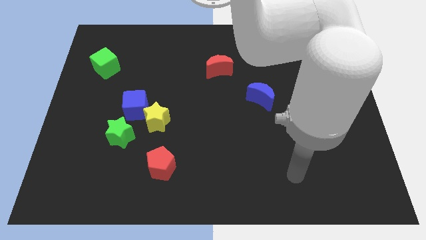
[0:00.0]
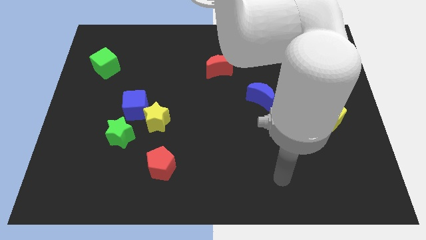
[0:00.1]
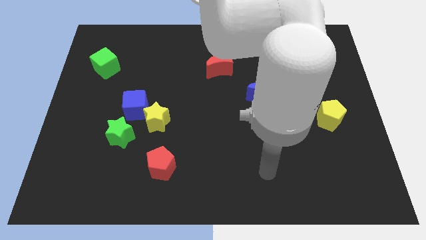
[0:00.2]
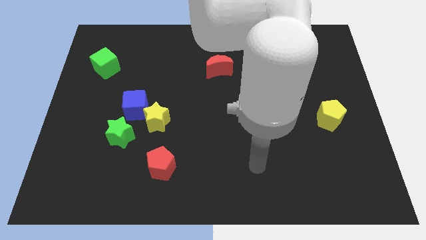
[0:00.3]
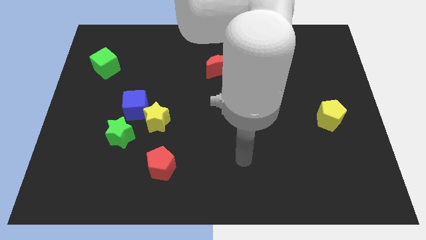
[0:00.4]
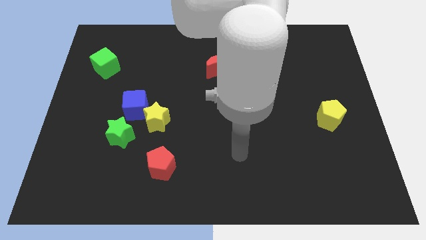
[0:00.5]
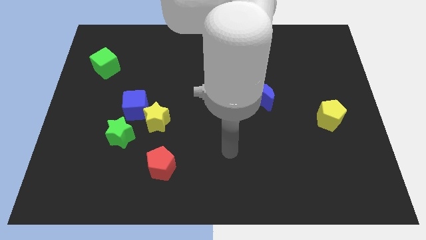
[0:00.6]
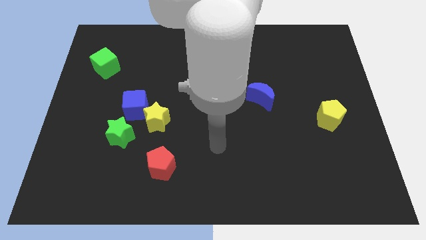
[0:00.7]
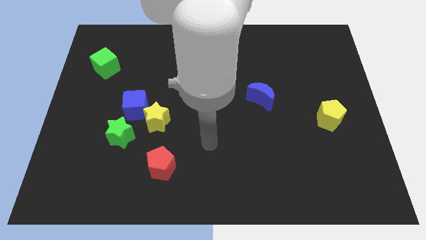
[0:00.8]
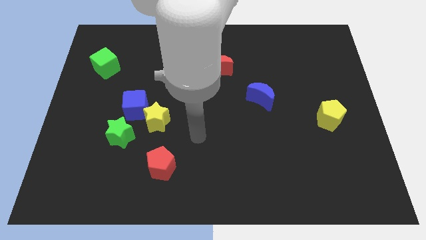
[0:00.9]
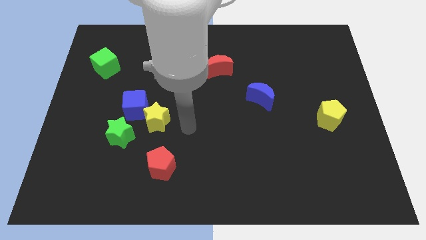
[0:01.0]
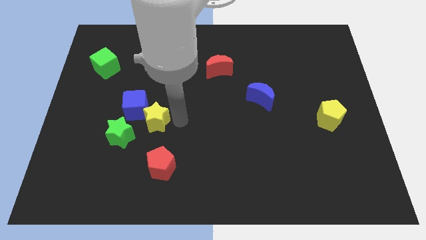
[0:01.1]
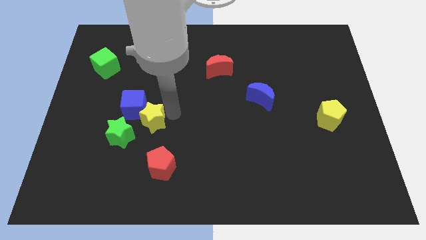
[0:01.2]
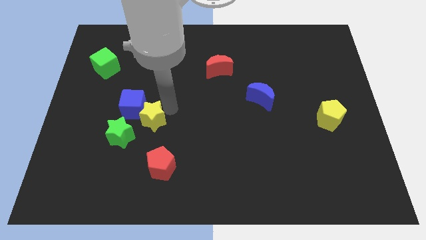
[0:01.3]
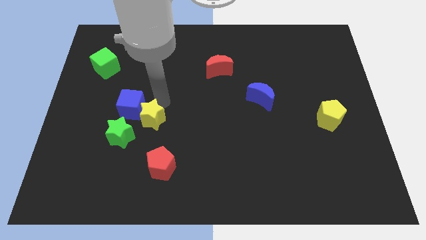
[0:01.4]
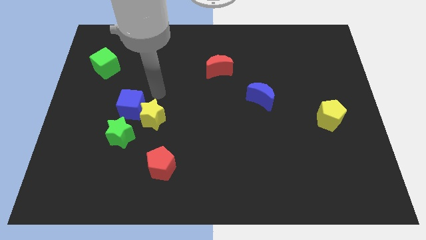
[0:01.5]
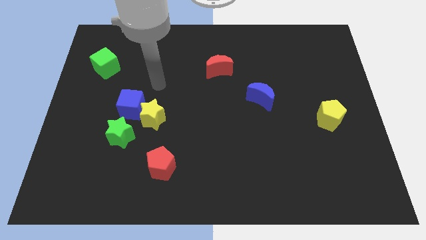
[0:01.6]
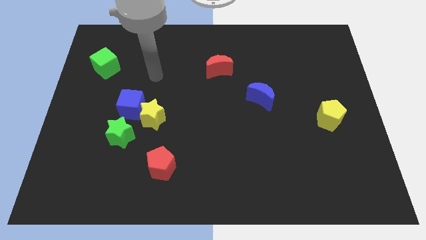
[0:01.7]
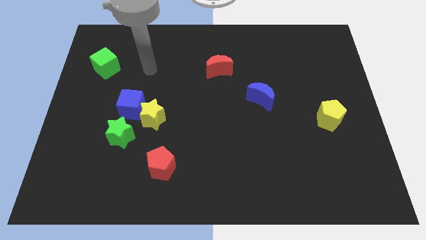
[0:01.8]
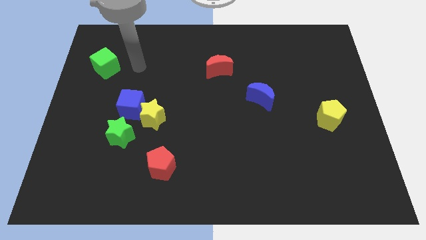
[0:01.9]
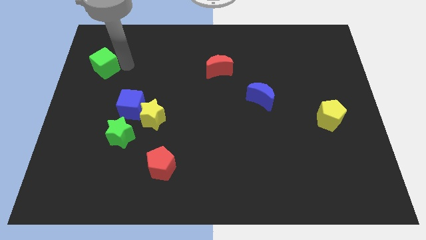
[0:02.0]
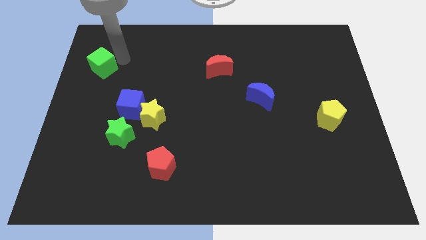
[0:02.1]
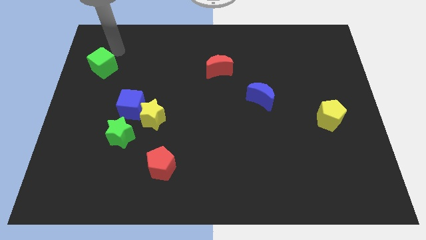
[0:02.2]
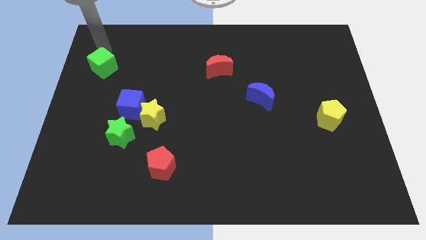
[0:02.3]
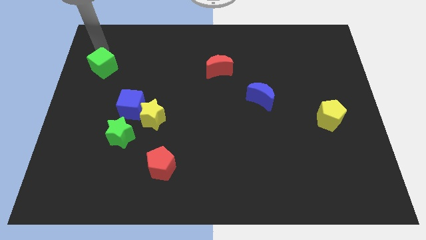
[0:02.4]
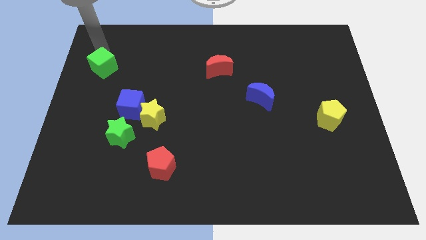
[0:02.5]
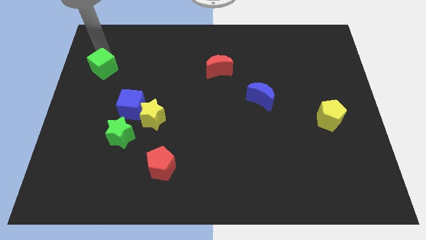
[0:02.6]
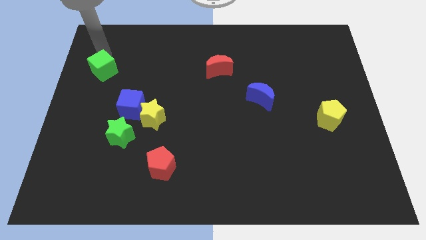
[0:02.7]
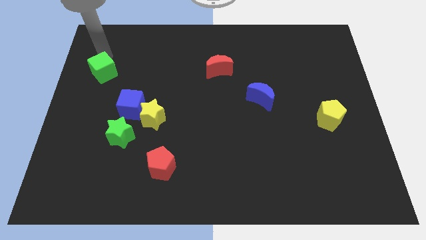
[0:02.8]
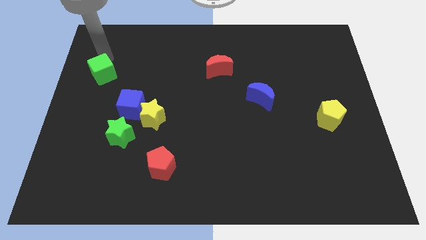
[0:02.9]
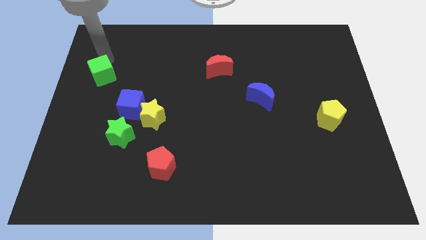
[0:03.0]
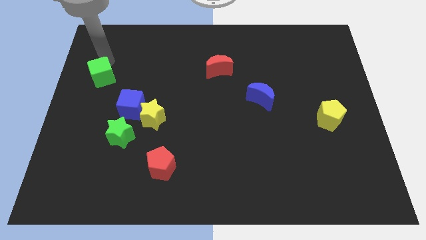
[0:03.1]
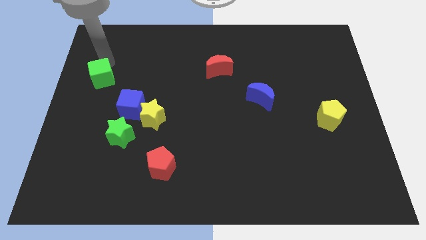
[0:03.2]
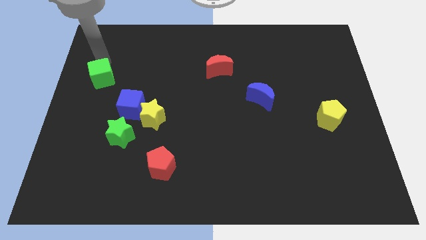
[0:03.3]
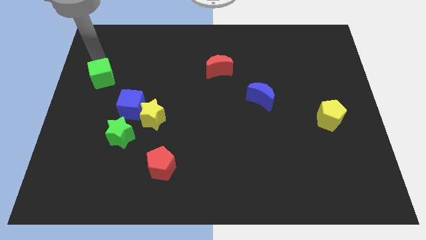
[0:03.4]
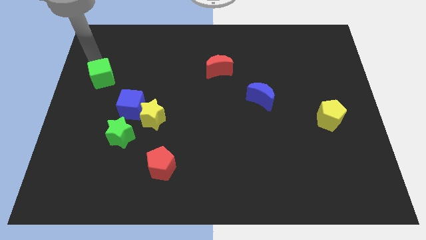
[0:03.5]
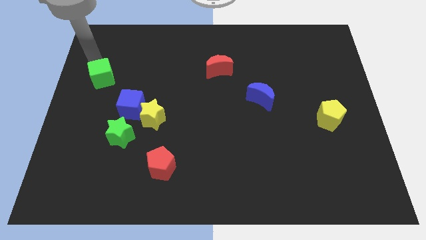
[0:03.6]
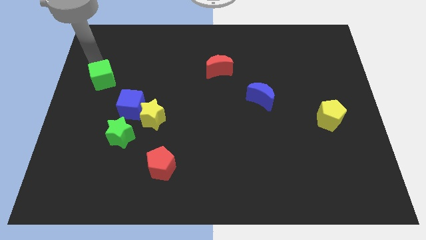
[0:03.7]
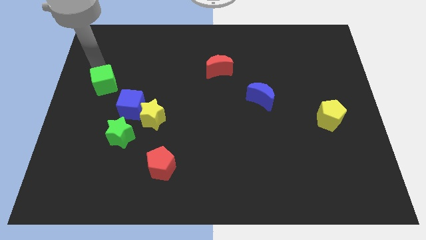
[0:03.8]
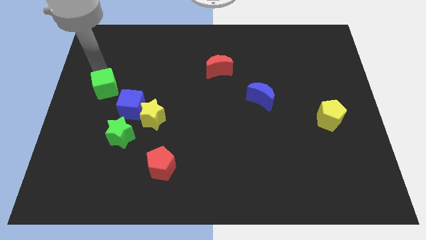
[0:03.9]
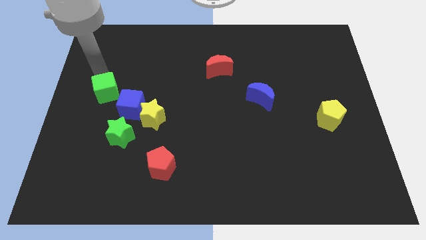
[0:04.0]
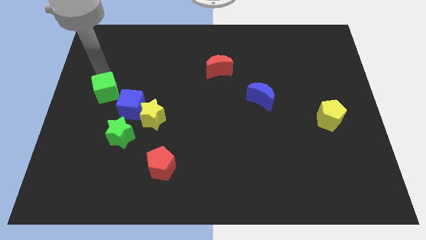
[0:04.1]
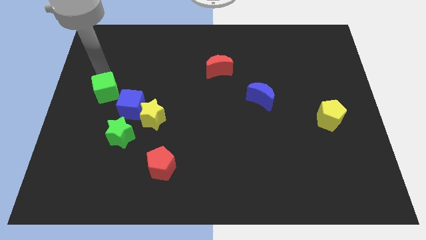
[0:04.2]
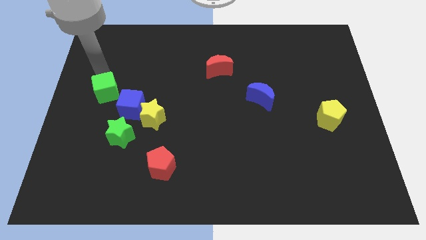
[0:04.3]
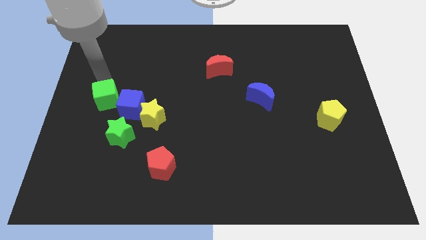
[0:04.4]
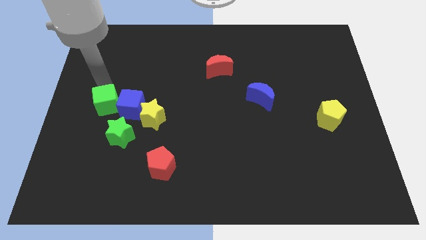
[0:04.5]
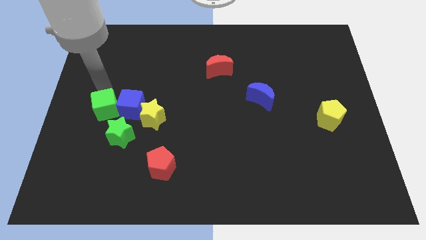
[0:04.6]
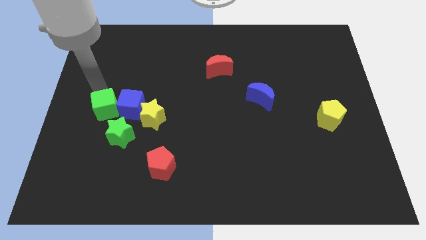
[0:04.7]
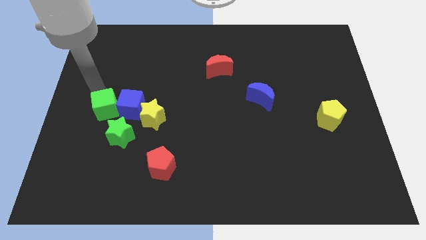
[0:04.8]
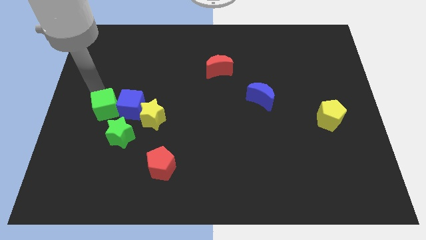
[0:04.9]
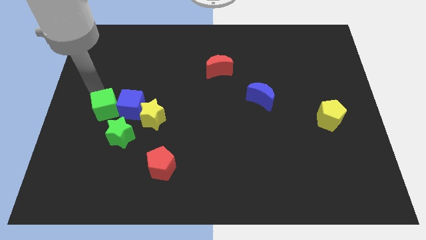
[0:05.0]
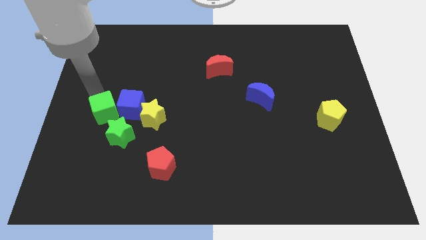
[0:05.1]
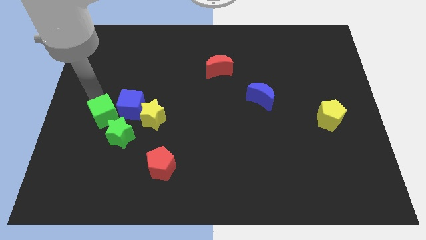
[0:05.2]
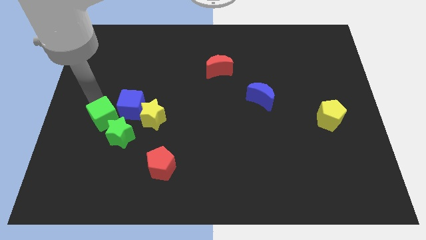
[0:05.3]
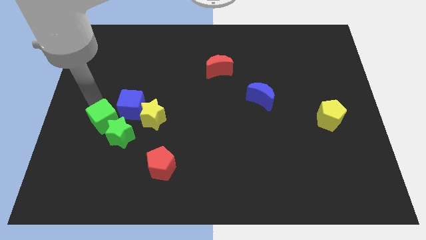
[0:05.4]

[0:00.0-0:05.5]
move the green cube to the green star

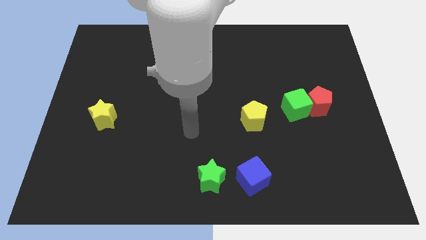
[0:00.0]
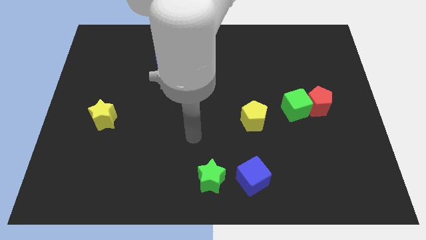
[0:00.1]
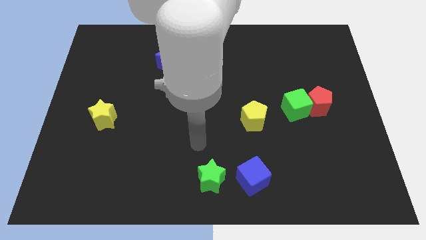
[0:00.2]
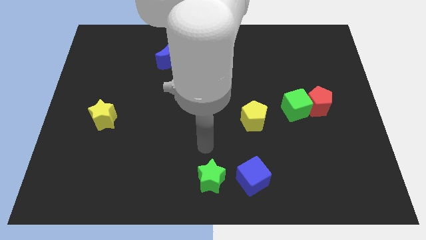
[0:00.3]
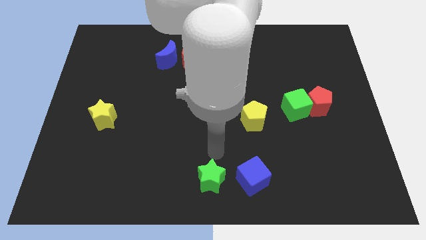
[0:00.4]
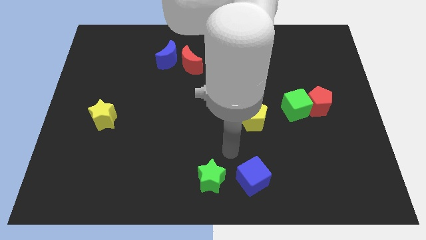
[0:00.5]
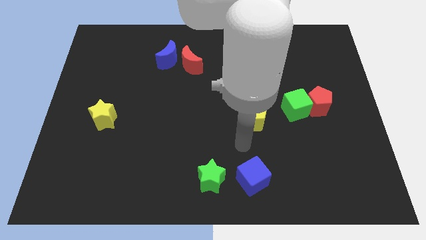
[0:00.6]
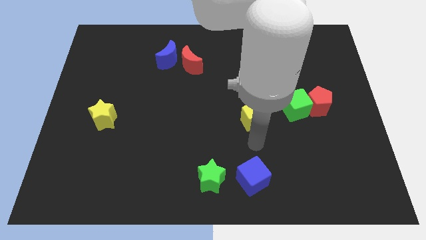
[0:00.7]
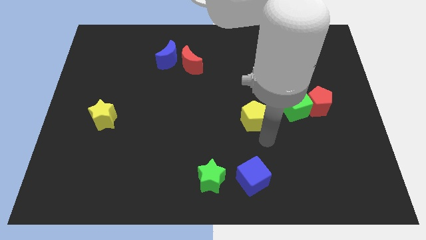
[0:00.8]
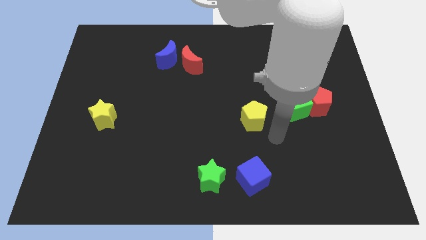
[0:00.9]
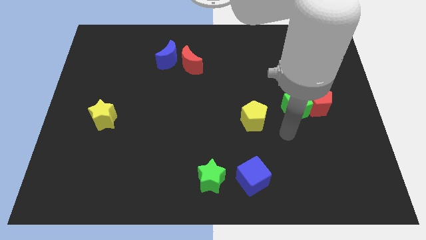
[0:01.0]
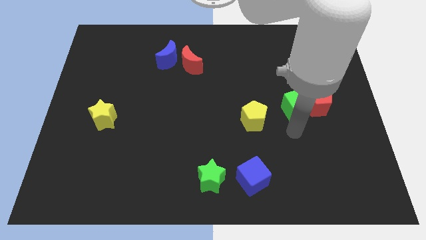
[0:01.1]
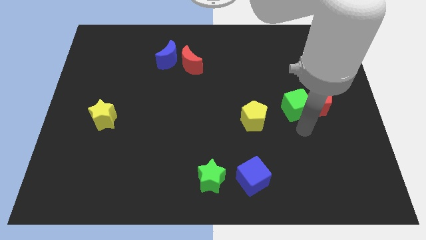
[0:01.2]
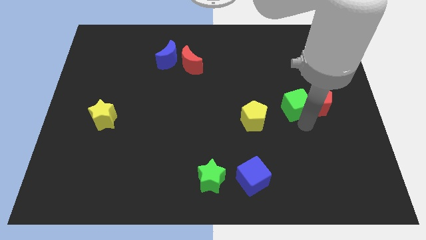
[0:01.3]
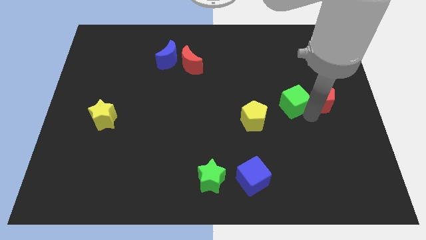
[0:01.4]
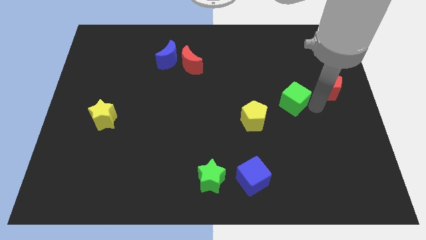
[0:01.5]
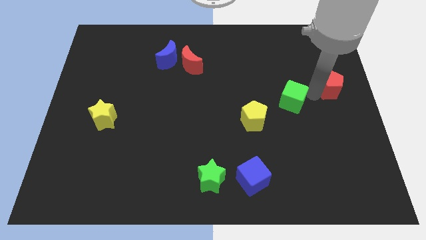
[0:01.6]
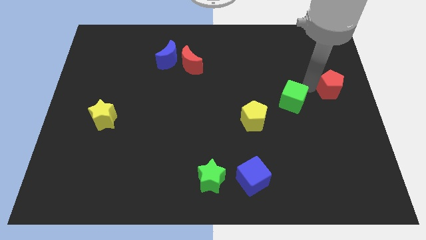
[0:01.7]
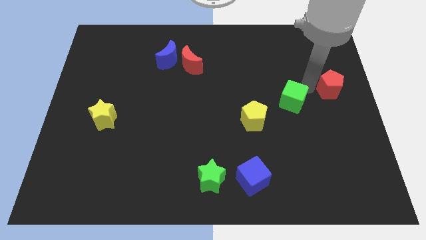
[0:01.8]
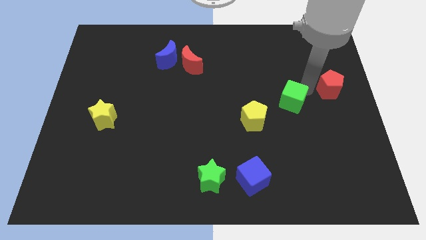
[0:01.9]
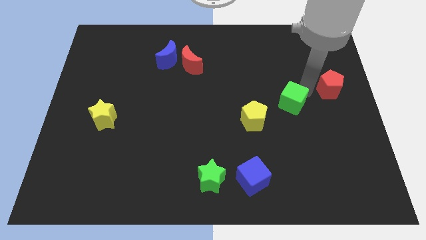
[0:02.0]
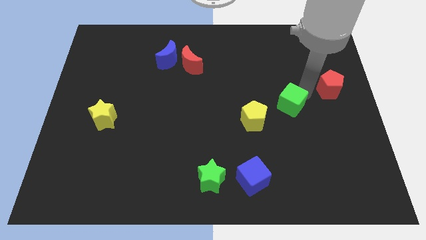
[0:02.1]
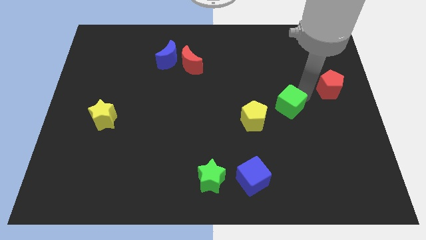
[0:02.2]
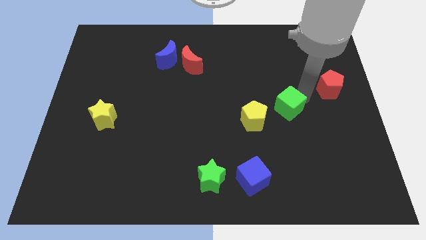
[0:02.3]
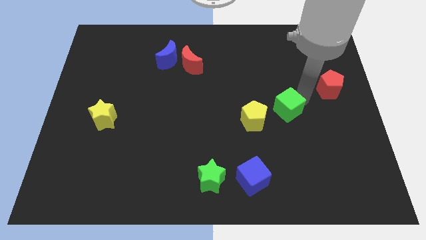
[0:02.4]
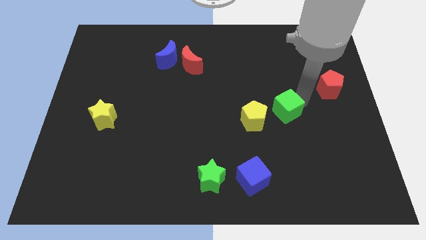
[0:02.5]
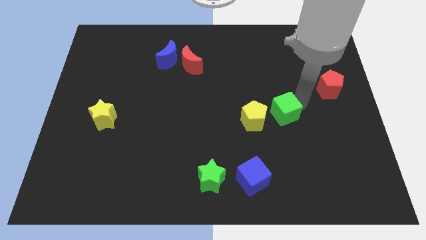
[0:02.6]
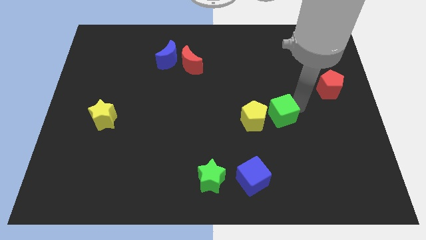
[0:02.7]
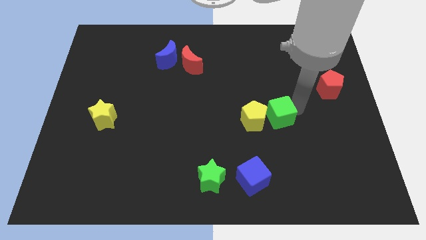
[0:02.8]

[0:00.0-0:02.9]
slide the green cube to the yellow pentagon
